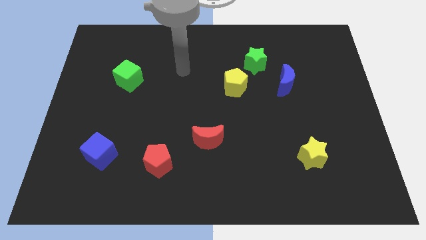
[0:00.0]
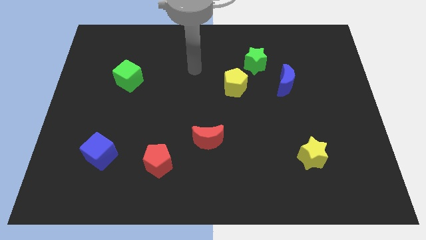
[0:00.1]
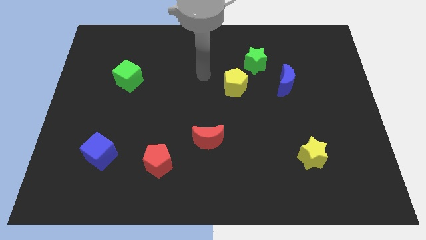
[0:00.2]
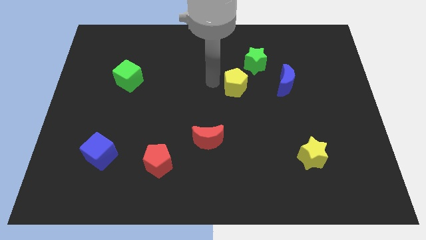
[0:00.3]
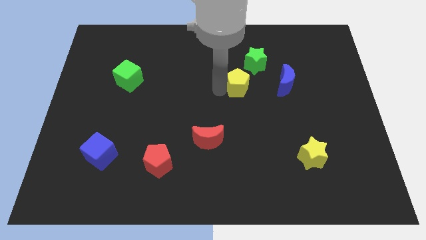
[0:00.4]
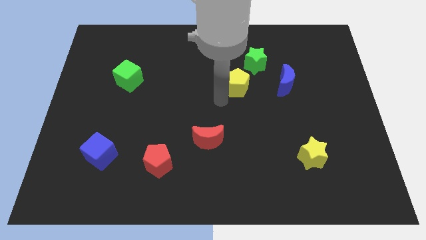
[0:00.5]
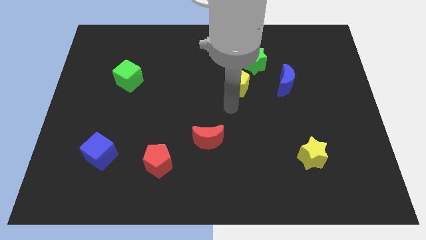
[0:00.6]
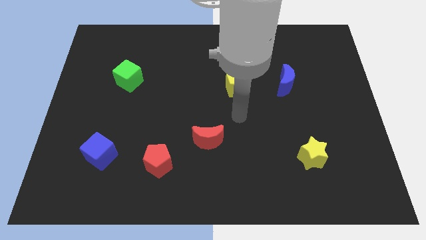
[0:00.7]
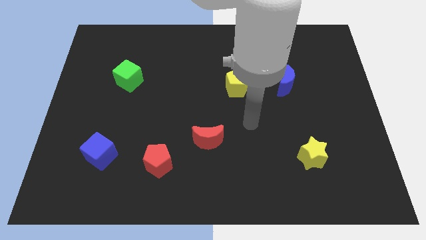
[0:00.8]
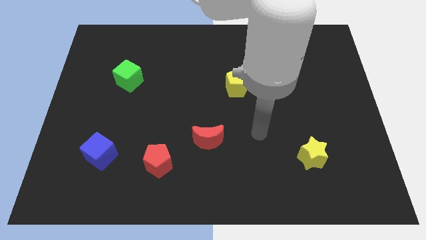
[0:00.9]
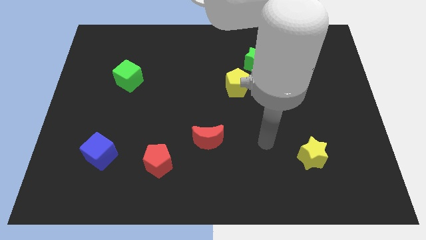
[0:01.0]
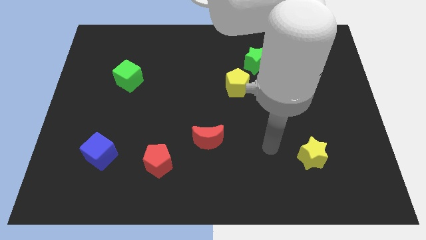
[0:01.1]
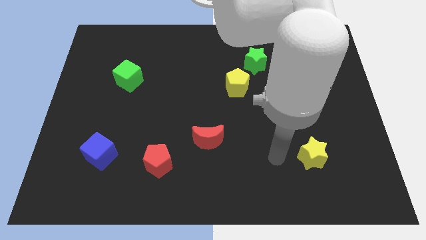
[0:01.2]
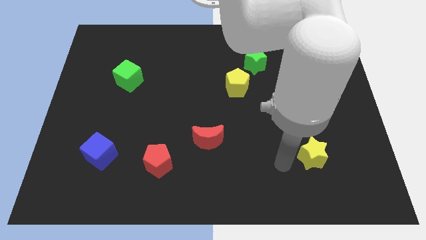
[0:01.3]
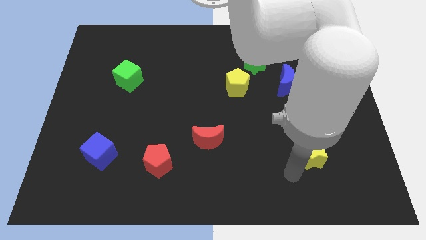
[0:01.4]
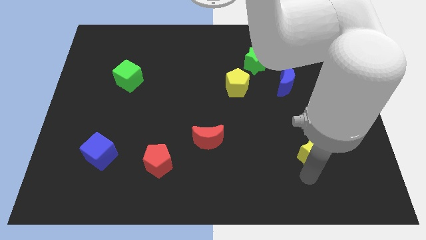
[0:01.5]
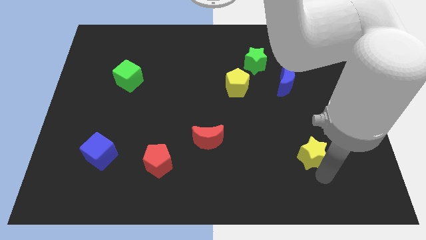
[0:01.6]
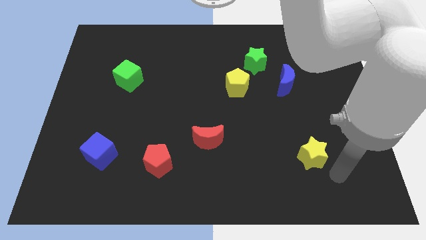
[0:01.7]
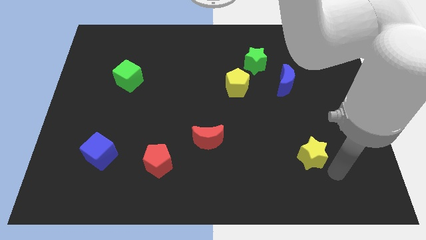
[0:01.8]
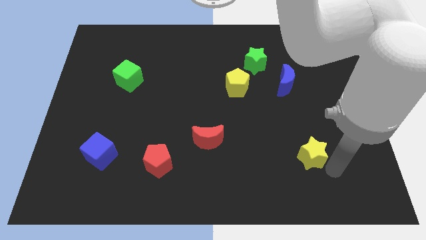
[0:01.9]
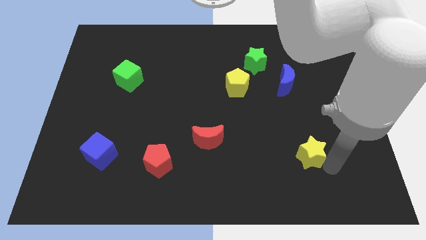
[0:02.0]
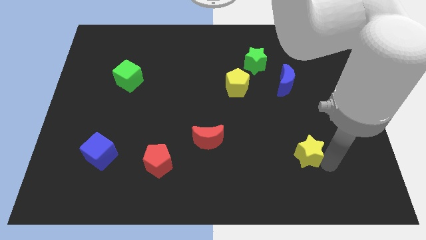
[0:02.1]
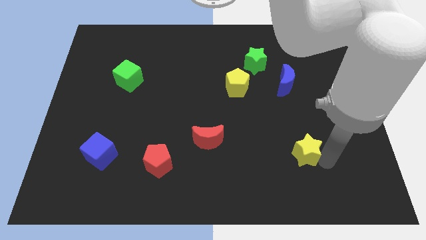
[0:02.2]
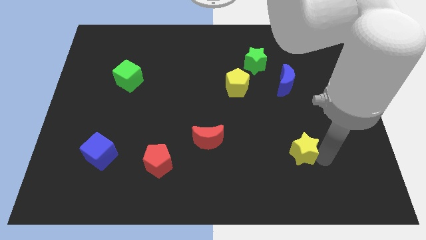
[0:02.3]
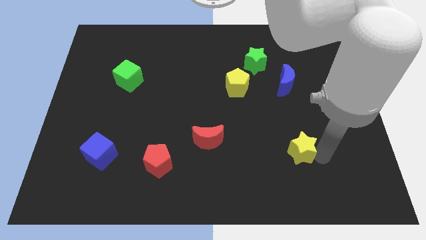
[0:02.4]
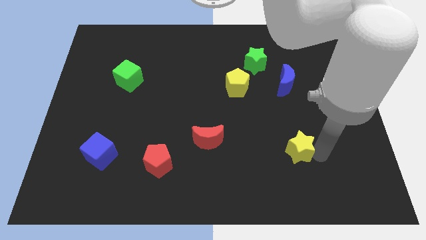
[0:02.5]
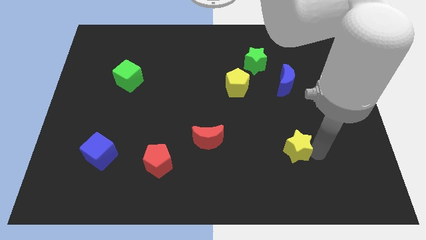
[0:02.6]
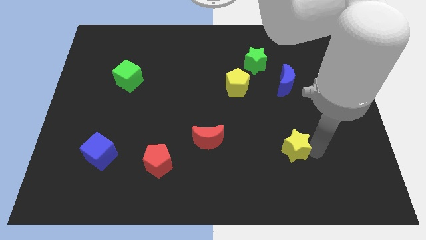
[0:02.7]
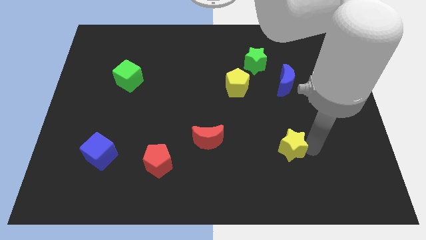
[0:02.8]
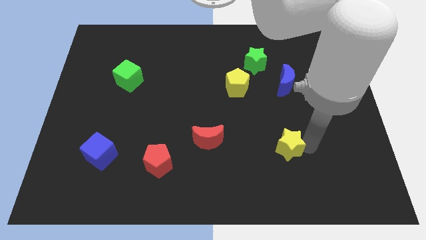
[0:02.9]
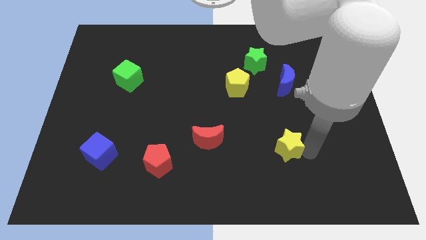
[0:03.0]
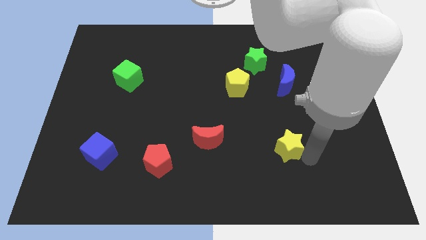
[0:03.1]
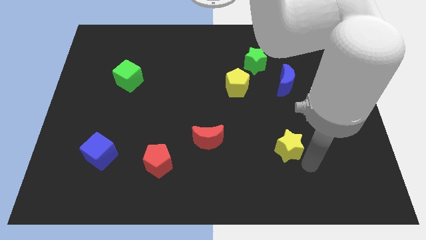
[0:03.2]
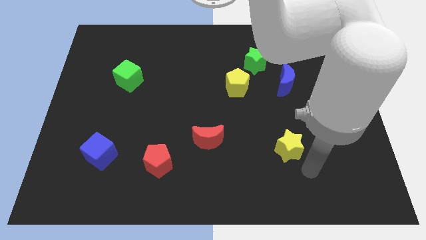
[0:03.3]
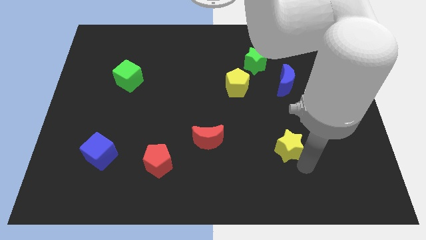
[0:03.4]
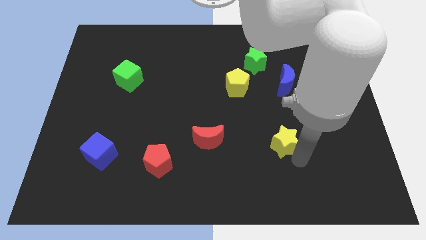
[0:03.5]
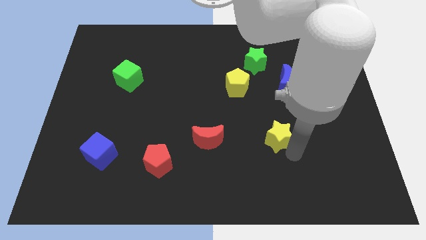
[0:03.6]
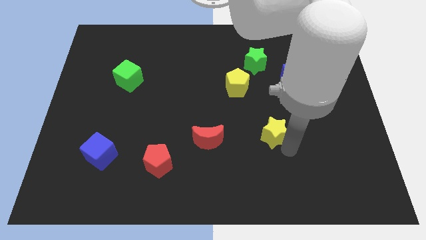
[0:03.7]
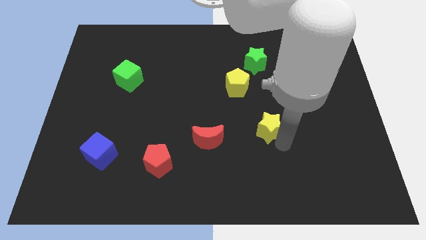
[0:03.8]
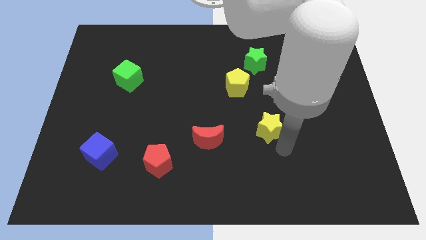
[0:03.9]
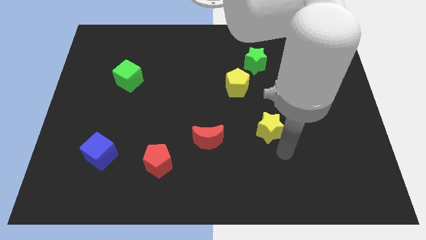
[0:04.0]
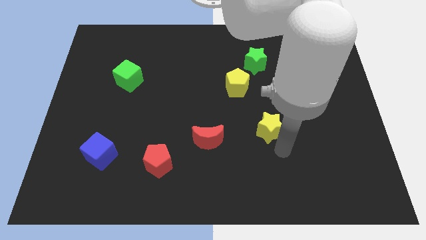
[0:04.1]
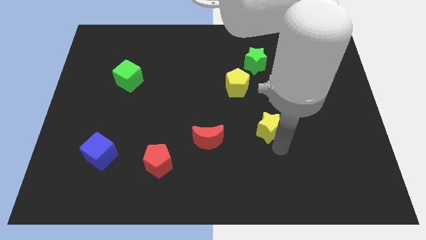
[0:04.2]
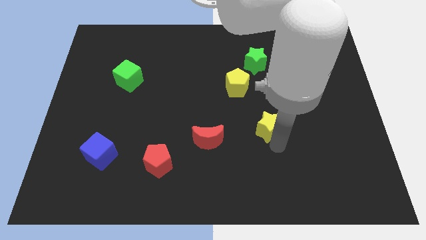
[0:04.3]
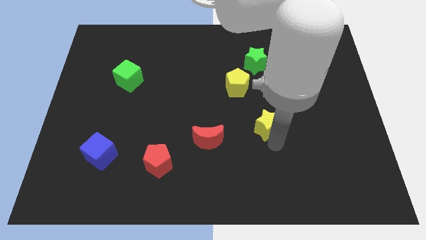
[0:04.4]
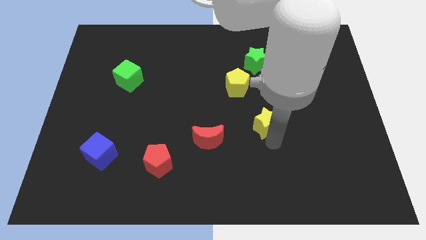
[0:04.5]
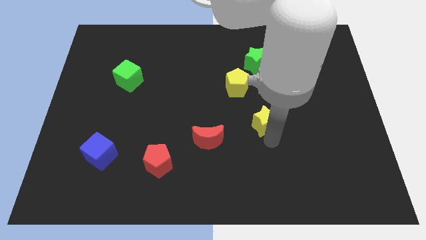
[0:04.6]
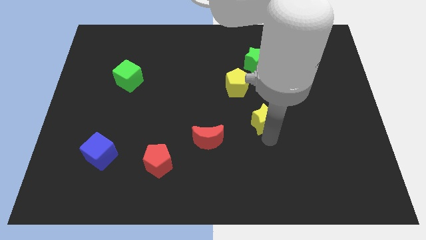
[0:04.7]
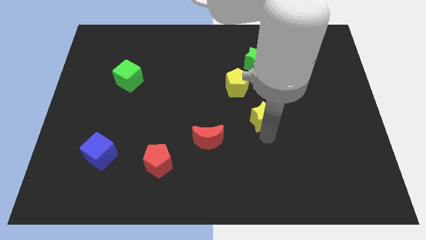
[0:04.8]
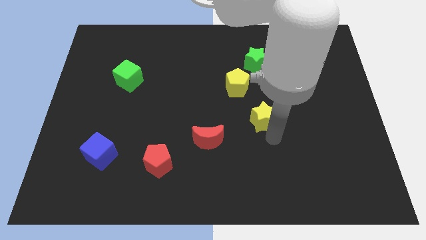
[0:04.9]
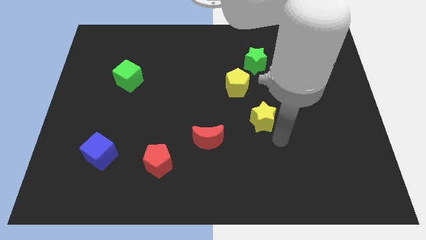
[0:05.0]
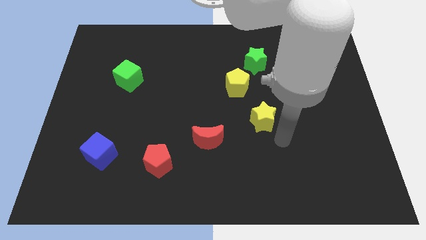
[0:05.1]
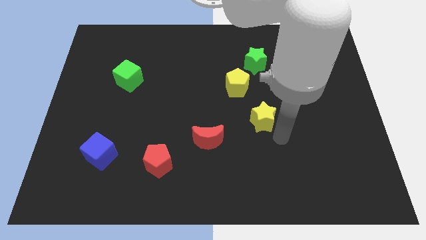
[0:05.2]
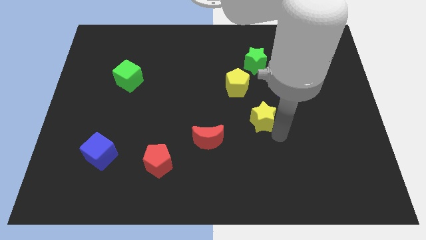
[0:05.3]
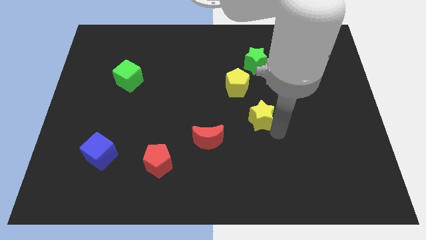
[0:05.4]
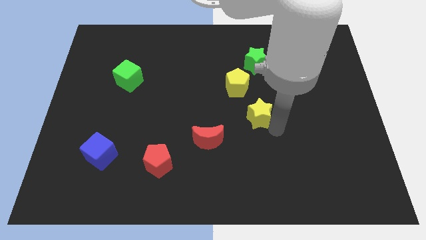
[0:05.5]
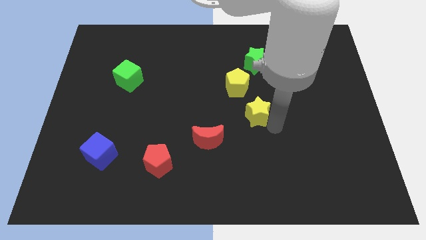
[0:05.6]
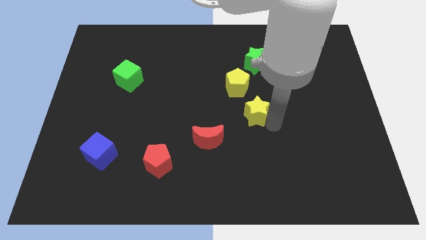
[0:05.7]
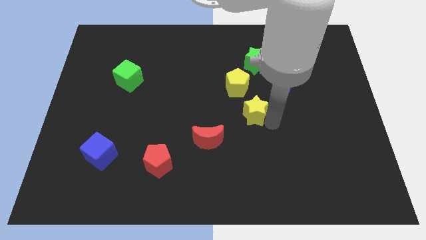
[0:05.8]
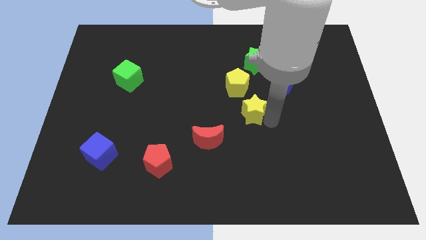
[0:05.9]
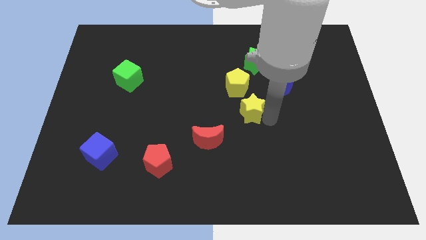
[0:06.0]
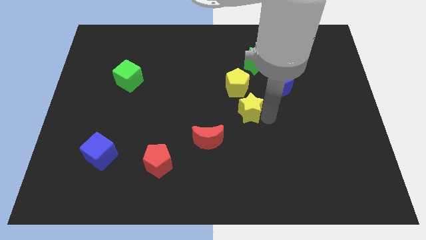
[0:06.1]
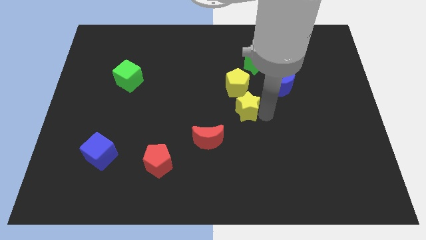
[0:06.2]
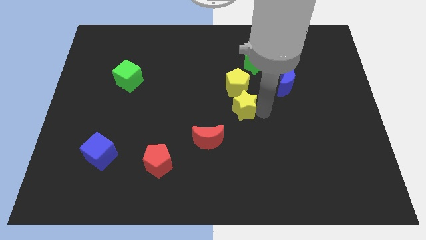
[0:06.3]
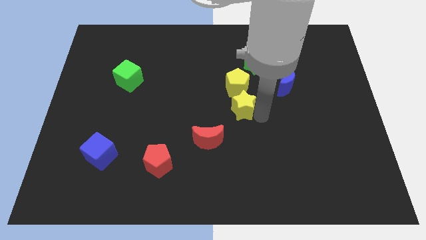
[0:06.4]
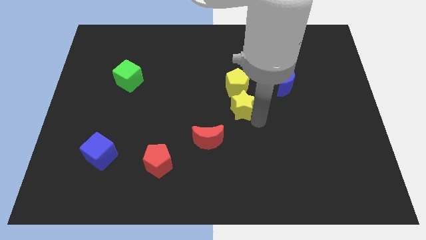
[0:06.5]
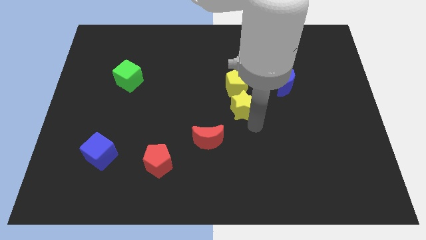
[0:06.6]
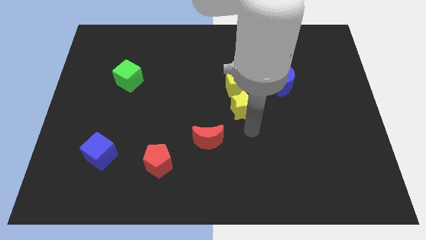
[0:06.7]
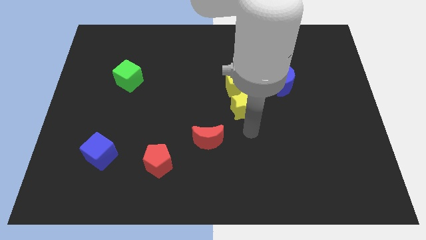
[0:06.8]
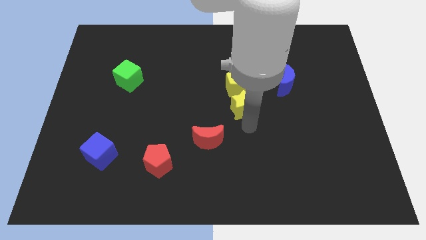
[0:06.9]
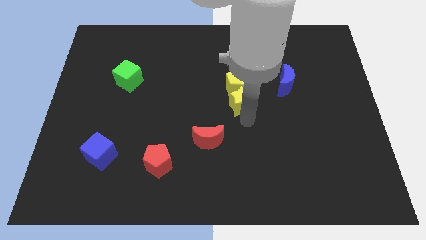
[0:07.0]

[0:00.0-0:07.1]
push the yellow star close to the yellow pentagon
